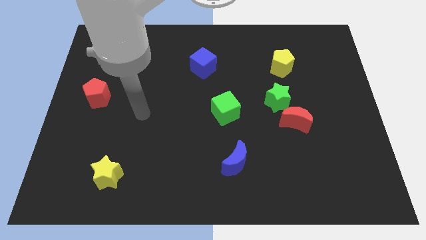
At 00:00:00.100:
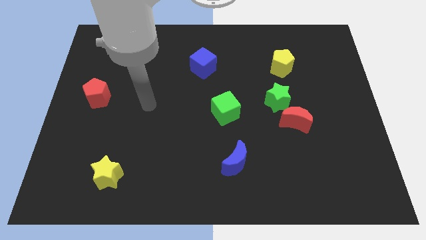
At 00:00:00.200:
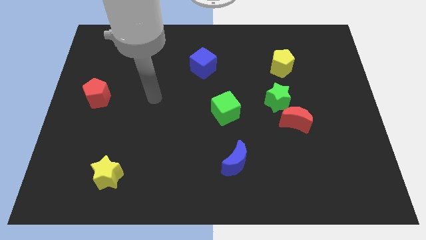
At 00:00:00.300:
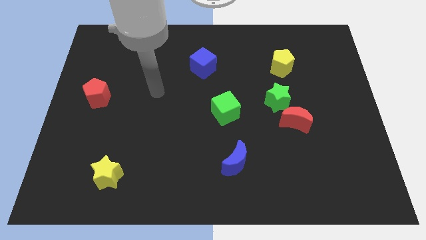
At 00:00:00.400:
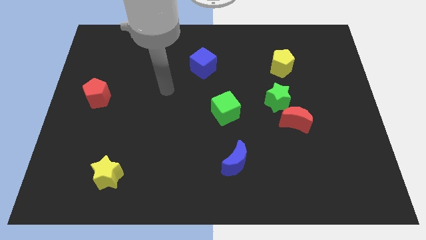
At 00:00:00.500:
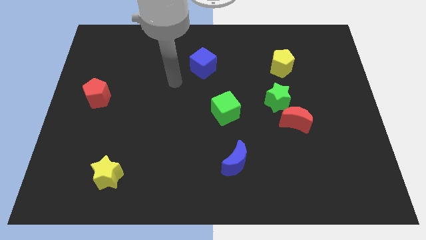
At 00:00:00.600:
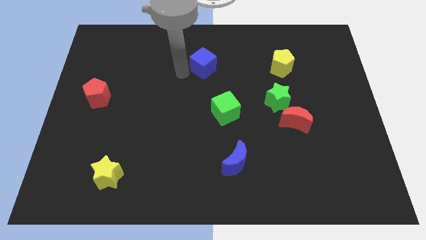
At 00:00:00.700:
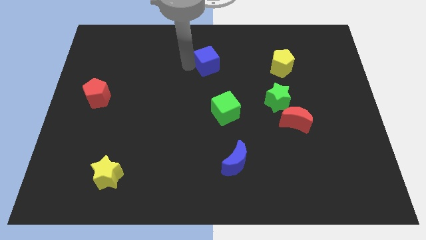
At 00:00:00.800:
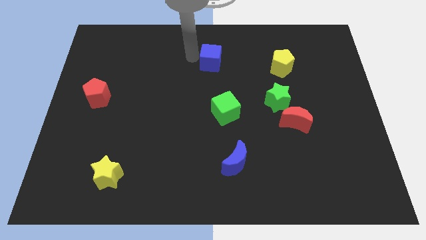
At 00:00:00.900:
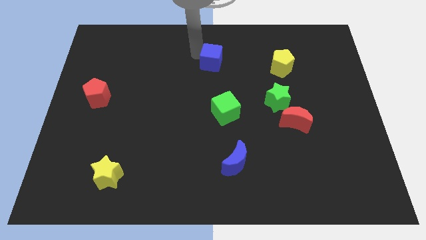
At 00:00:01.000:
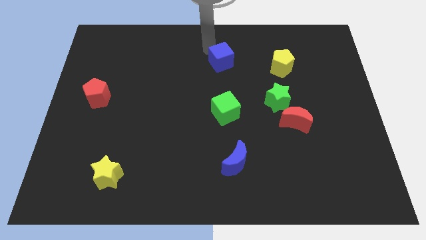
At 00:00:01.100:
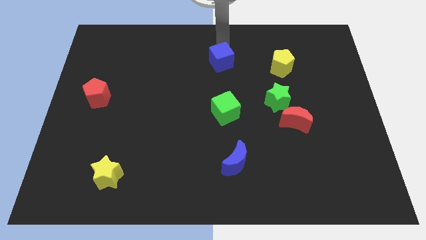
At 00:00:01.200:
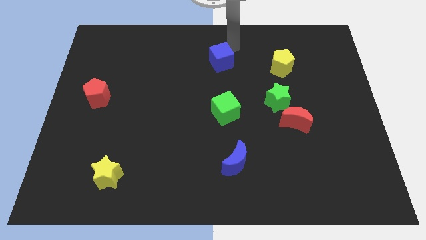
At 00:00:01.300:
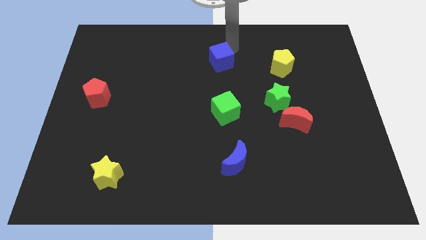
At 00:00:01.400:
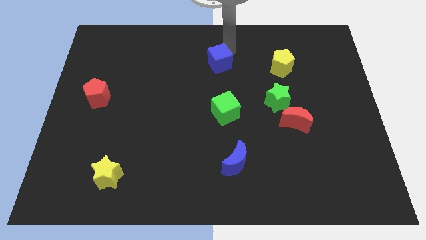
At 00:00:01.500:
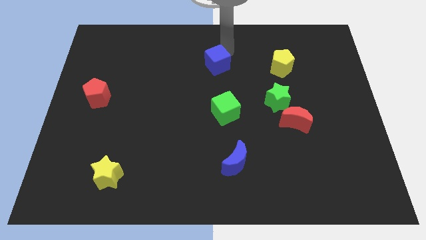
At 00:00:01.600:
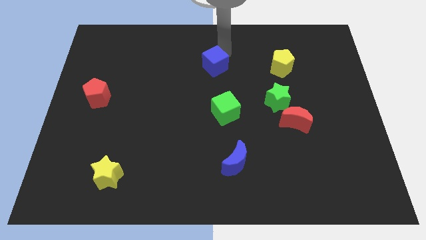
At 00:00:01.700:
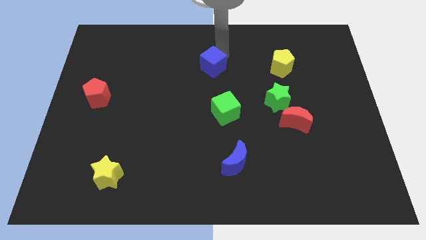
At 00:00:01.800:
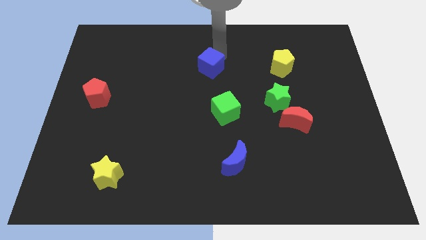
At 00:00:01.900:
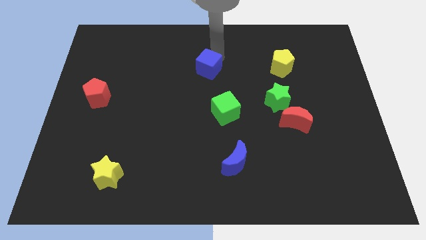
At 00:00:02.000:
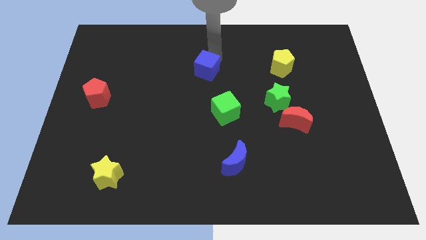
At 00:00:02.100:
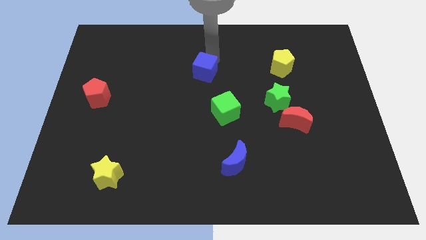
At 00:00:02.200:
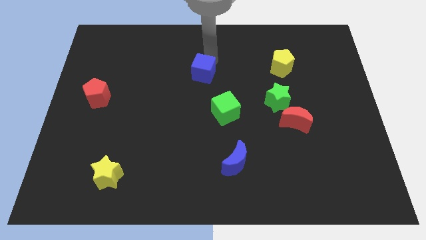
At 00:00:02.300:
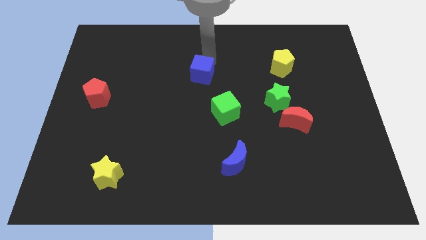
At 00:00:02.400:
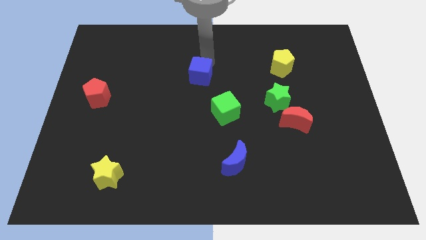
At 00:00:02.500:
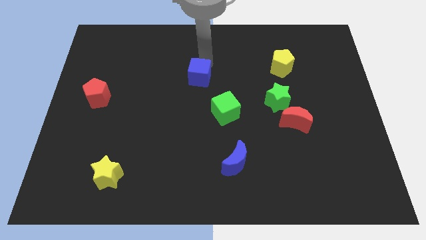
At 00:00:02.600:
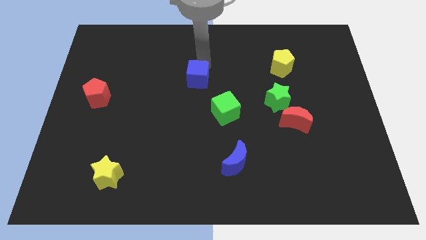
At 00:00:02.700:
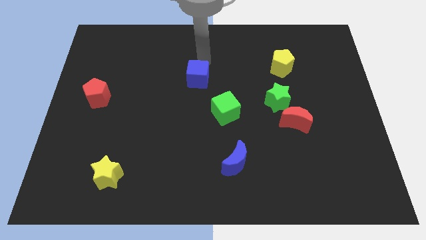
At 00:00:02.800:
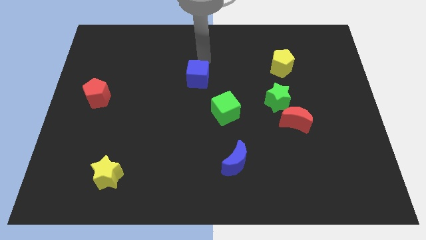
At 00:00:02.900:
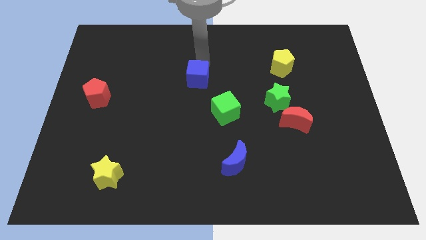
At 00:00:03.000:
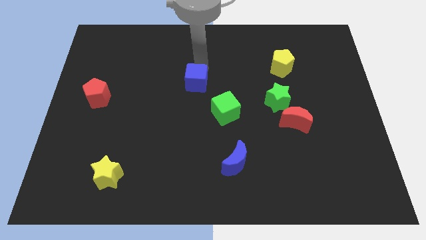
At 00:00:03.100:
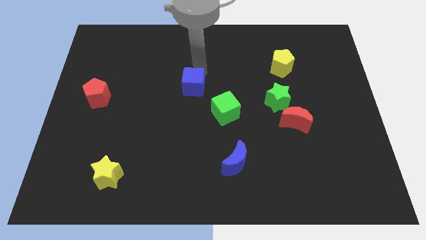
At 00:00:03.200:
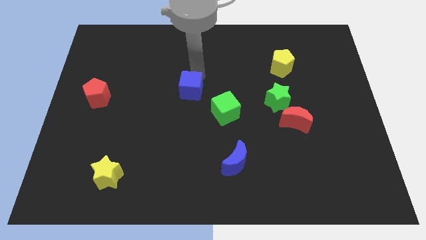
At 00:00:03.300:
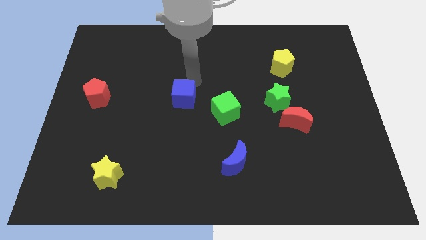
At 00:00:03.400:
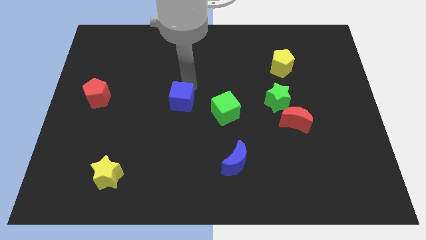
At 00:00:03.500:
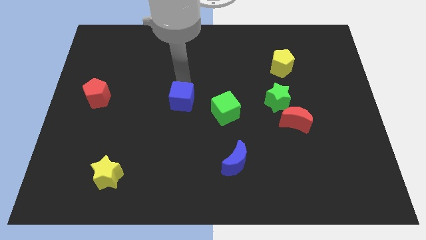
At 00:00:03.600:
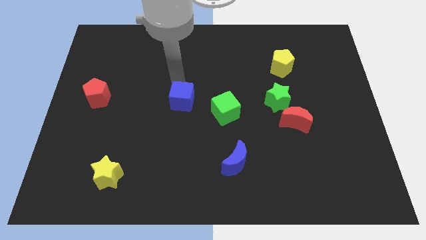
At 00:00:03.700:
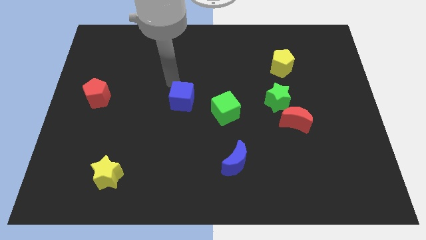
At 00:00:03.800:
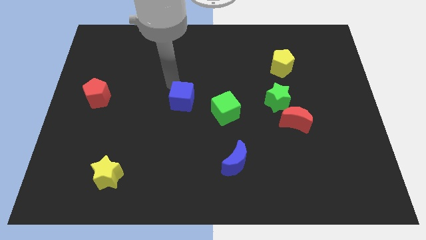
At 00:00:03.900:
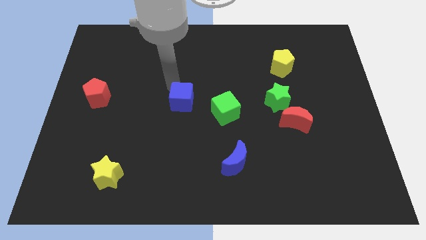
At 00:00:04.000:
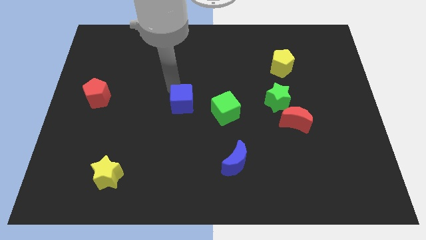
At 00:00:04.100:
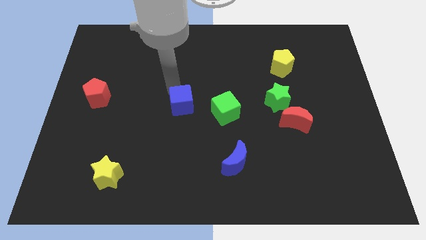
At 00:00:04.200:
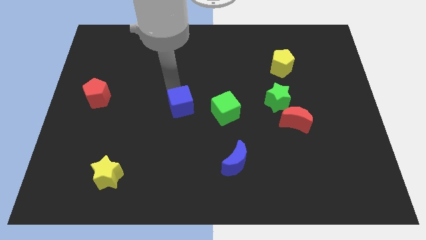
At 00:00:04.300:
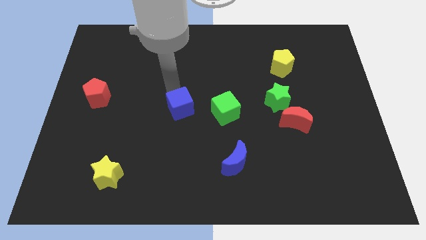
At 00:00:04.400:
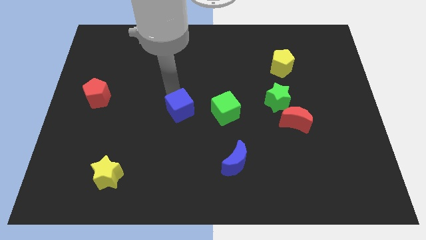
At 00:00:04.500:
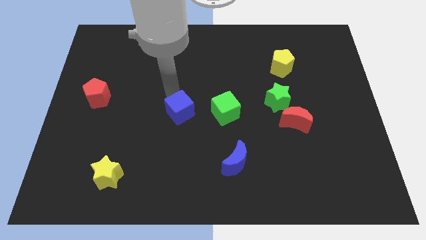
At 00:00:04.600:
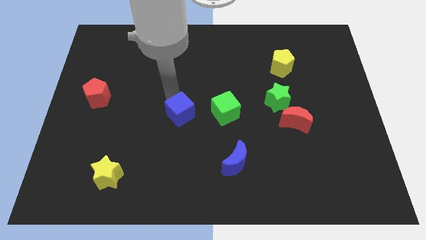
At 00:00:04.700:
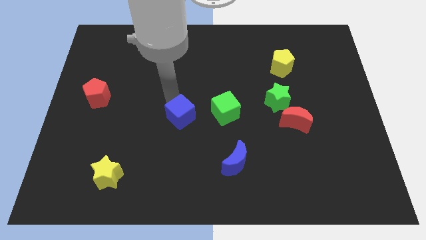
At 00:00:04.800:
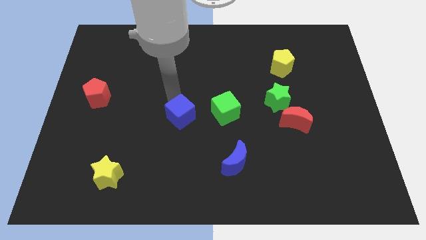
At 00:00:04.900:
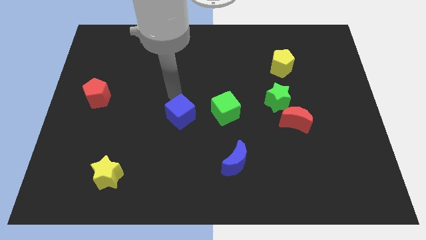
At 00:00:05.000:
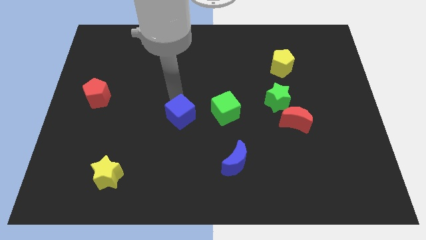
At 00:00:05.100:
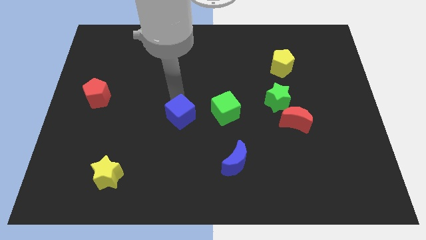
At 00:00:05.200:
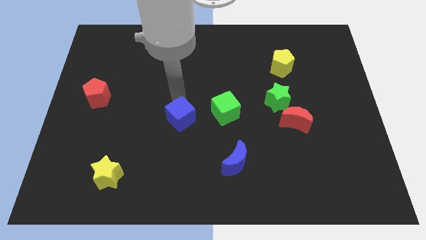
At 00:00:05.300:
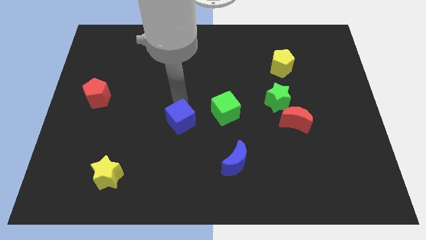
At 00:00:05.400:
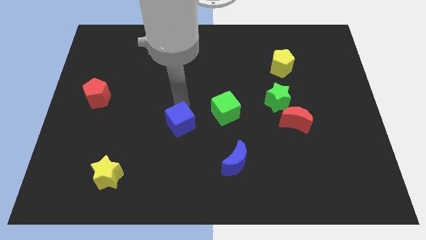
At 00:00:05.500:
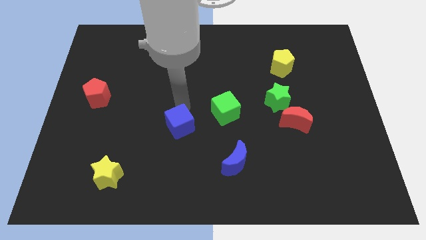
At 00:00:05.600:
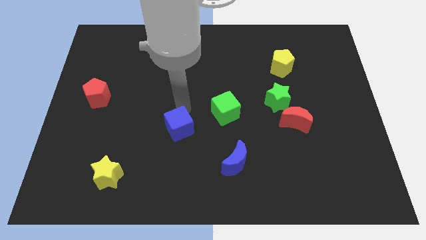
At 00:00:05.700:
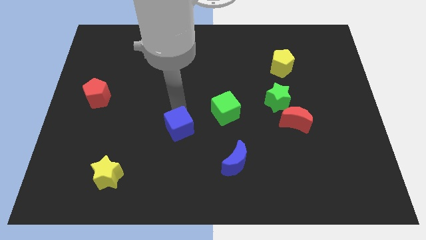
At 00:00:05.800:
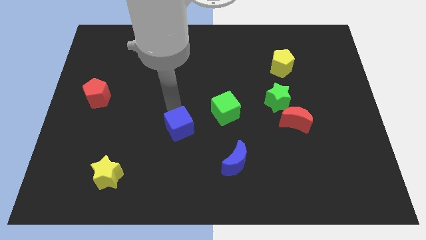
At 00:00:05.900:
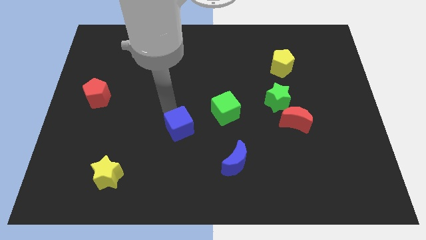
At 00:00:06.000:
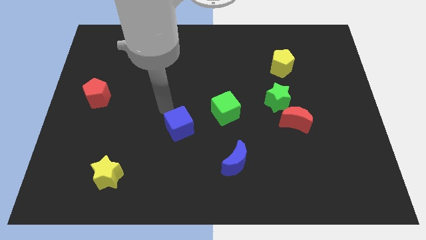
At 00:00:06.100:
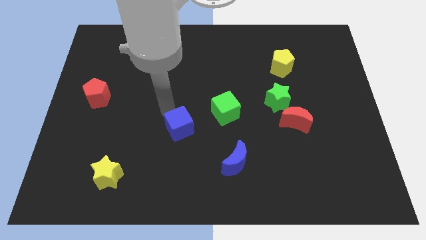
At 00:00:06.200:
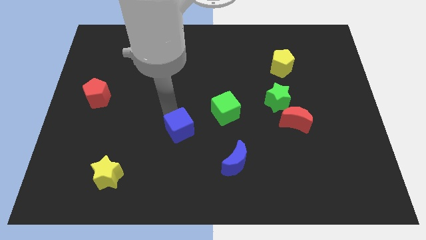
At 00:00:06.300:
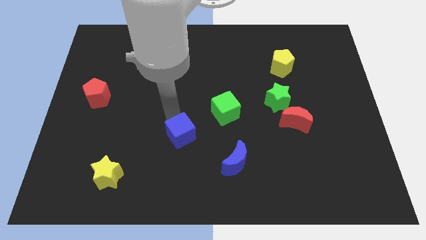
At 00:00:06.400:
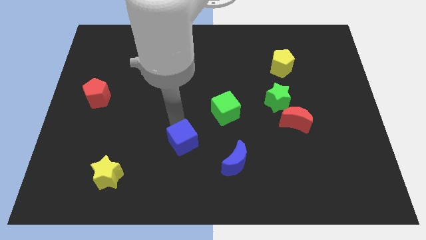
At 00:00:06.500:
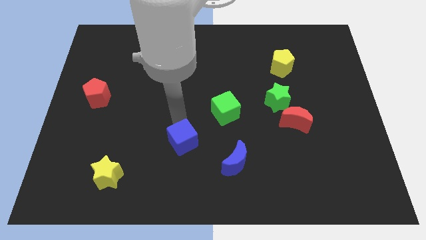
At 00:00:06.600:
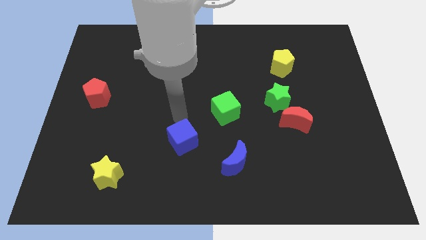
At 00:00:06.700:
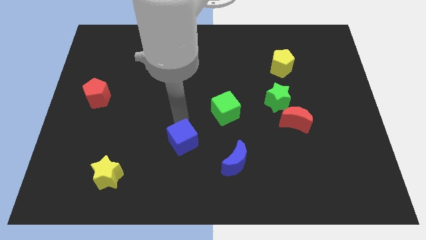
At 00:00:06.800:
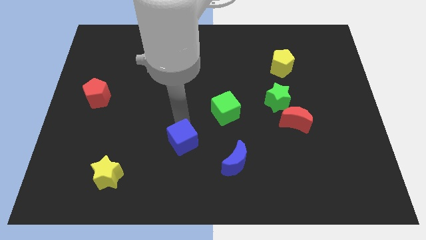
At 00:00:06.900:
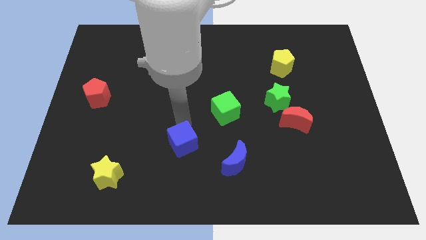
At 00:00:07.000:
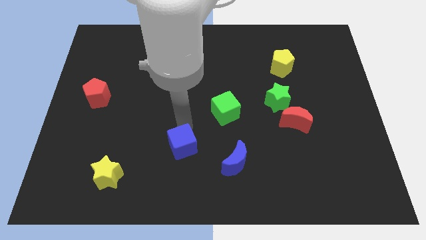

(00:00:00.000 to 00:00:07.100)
push the blue cube left of the blue moon
